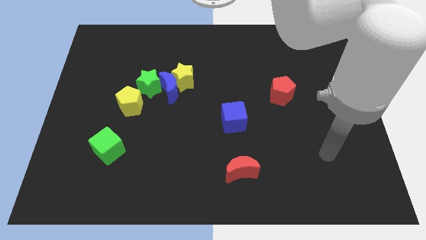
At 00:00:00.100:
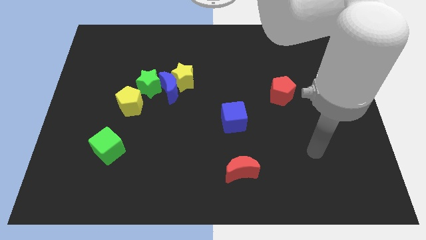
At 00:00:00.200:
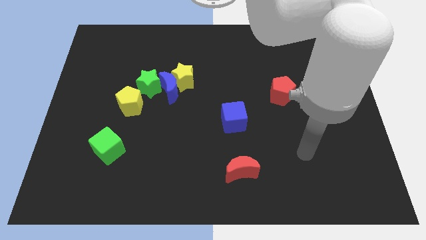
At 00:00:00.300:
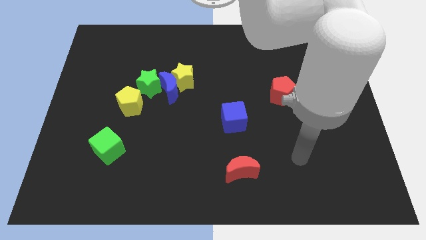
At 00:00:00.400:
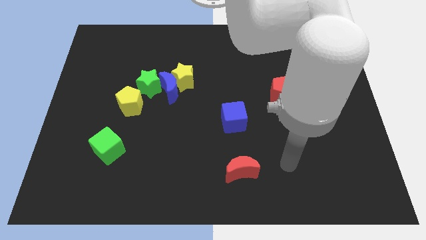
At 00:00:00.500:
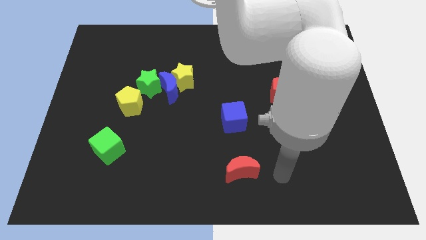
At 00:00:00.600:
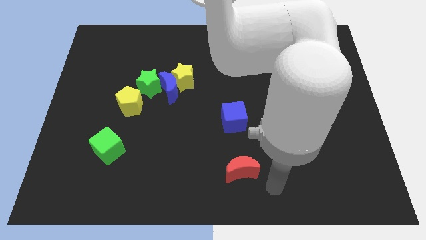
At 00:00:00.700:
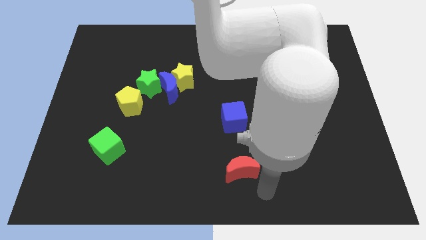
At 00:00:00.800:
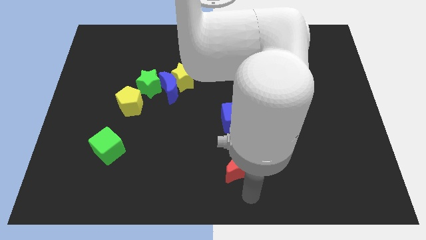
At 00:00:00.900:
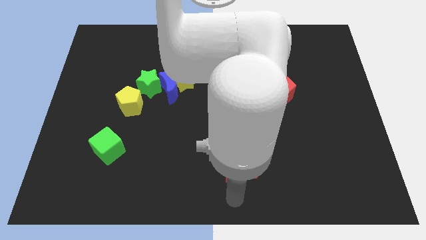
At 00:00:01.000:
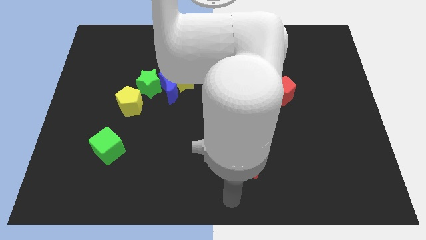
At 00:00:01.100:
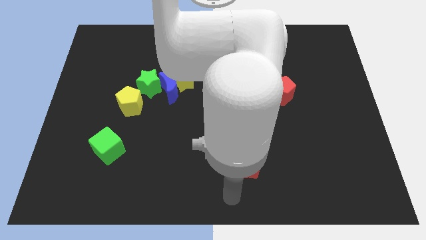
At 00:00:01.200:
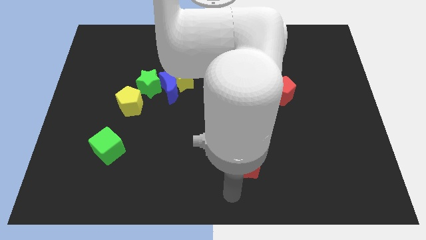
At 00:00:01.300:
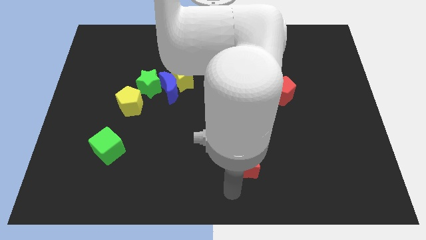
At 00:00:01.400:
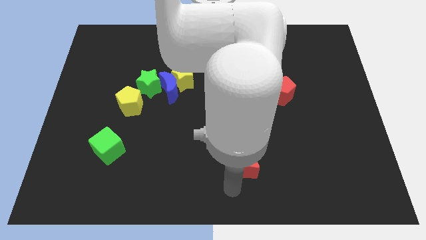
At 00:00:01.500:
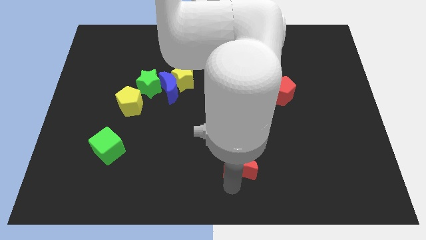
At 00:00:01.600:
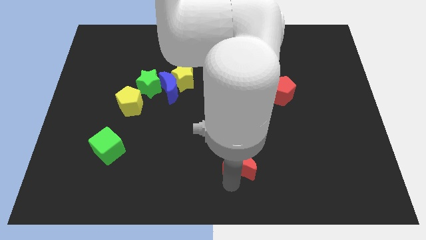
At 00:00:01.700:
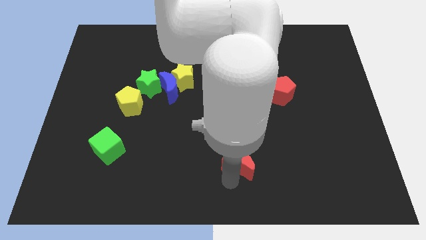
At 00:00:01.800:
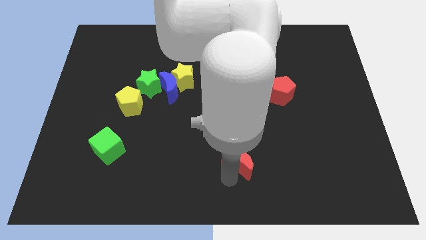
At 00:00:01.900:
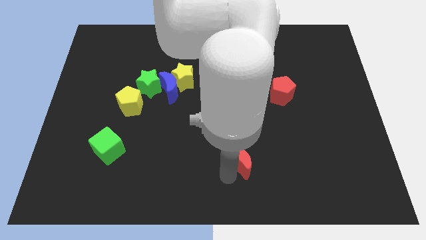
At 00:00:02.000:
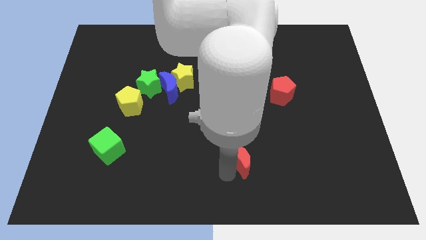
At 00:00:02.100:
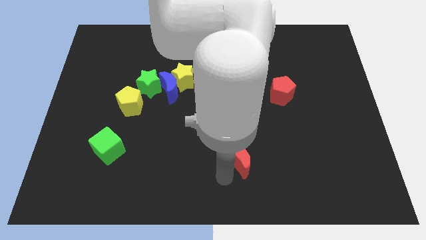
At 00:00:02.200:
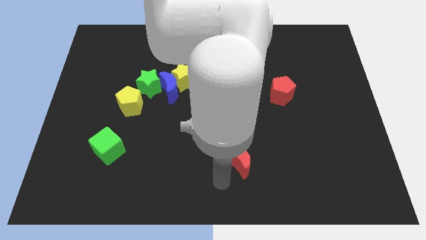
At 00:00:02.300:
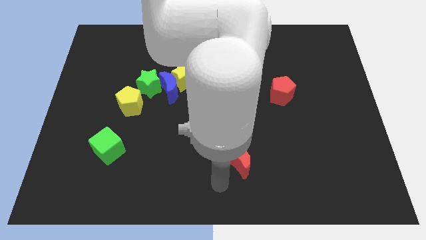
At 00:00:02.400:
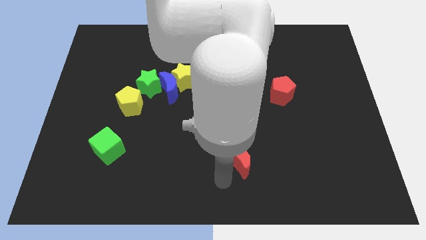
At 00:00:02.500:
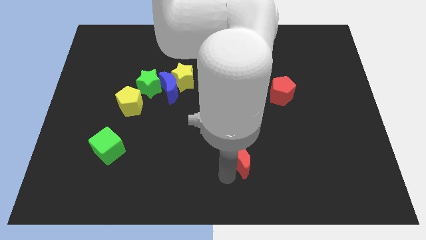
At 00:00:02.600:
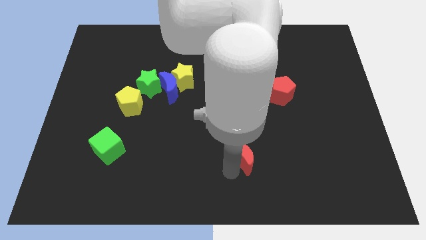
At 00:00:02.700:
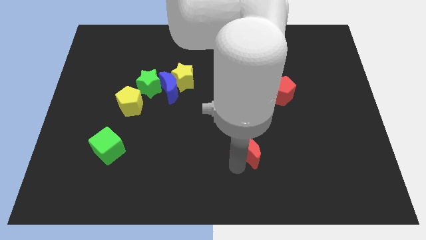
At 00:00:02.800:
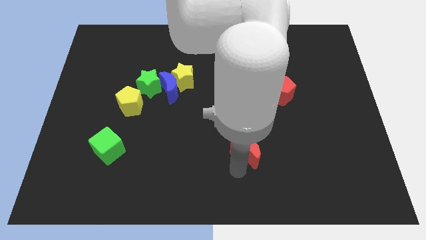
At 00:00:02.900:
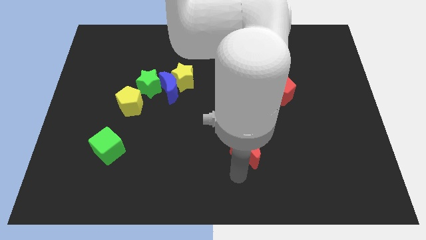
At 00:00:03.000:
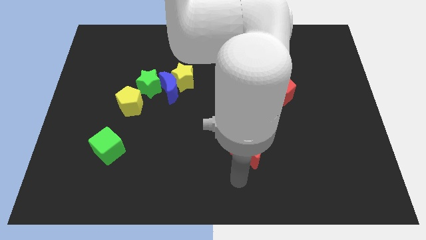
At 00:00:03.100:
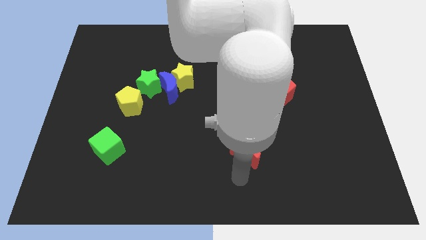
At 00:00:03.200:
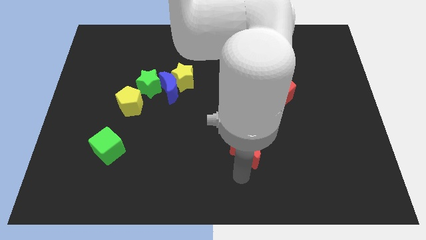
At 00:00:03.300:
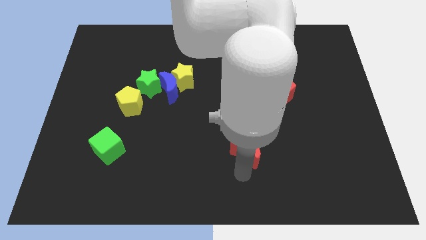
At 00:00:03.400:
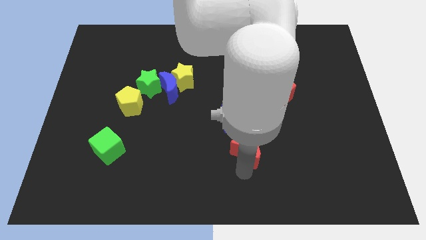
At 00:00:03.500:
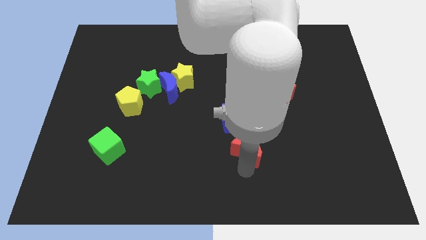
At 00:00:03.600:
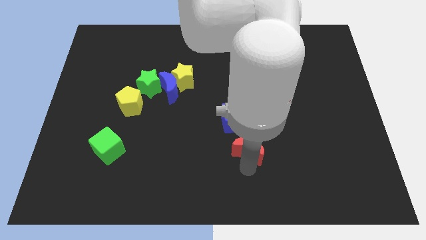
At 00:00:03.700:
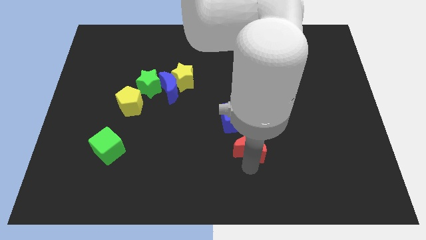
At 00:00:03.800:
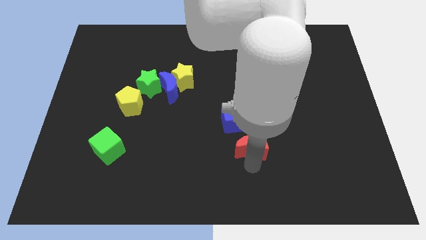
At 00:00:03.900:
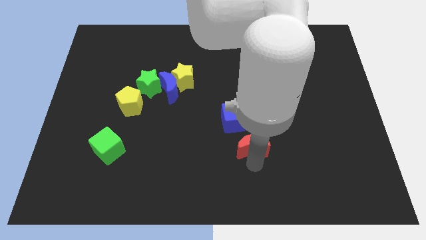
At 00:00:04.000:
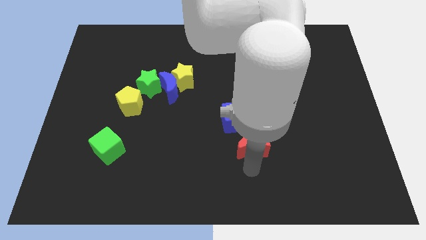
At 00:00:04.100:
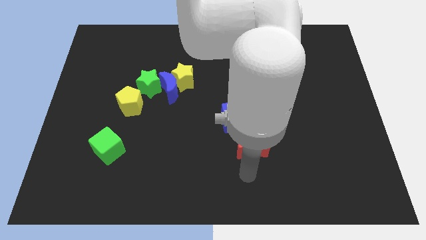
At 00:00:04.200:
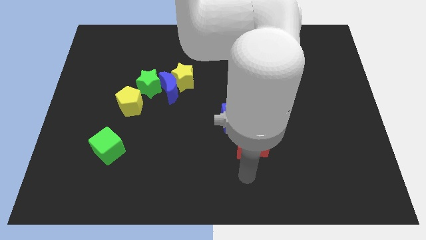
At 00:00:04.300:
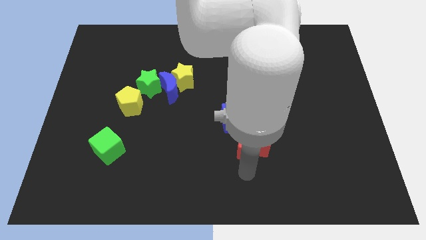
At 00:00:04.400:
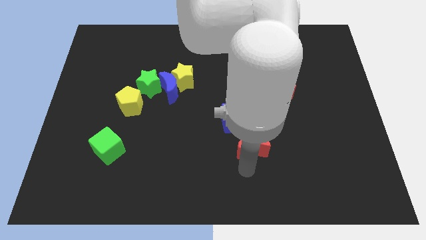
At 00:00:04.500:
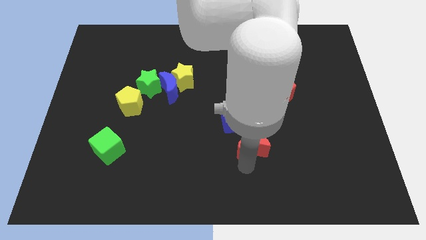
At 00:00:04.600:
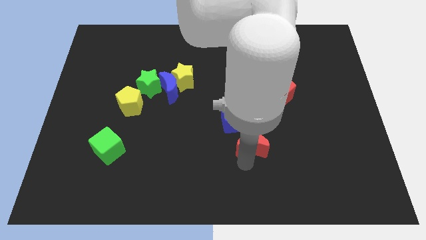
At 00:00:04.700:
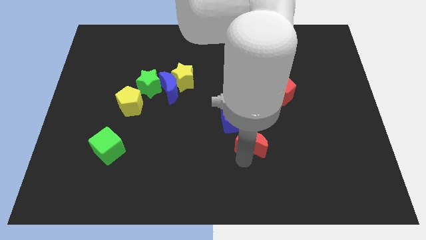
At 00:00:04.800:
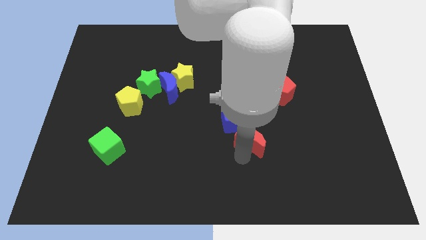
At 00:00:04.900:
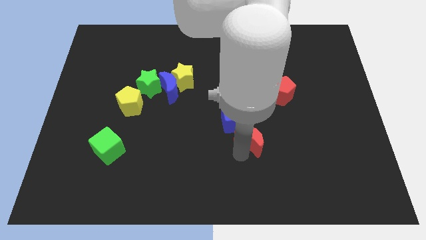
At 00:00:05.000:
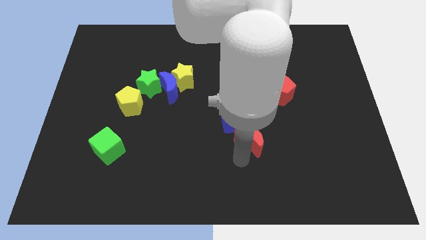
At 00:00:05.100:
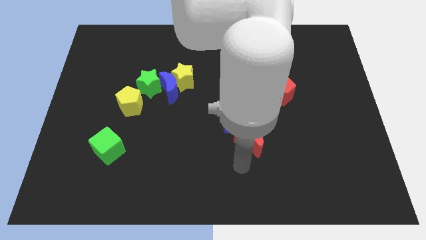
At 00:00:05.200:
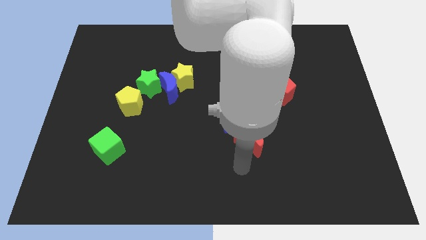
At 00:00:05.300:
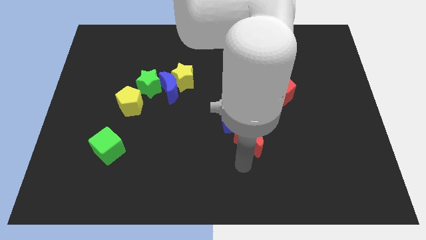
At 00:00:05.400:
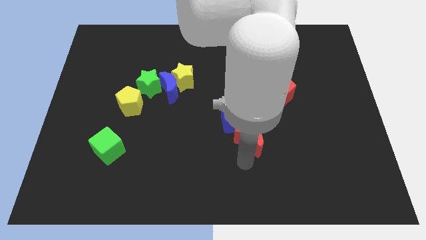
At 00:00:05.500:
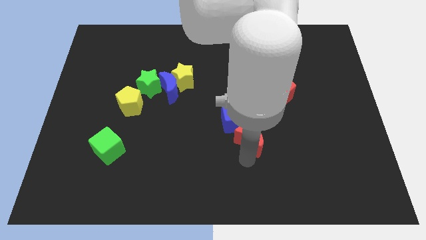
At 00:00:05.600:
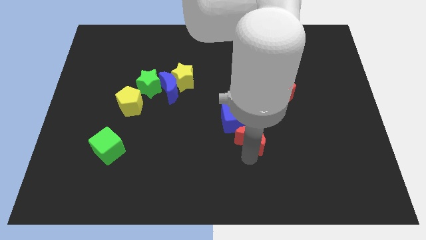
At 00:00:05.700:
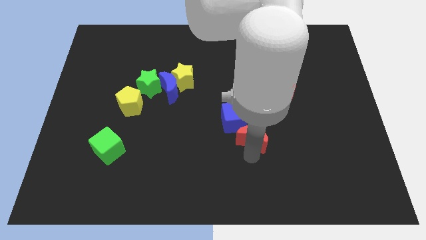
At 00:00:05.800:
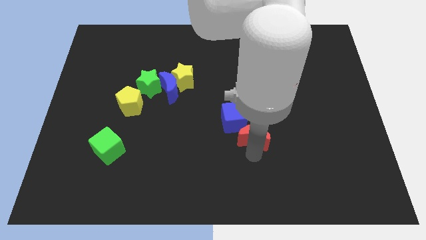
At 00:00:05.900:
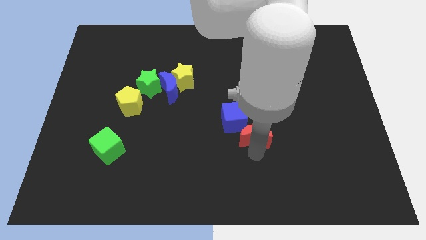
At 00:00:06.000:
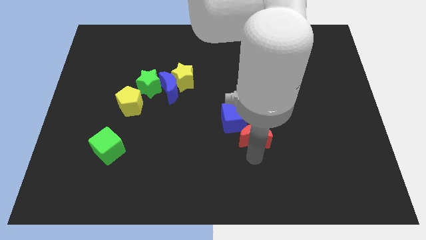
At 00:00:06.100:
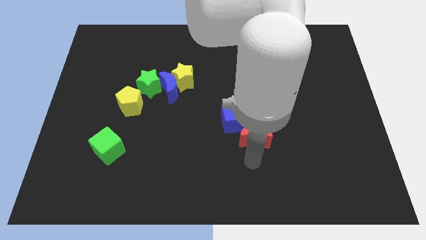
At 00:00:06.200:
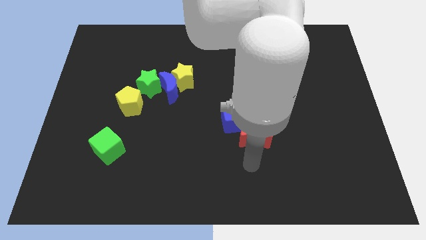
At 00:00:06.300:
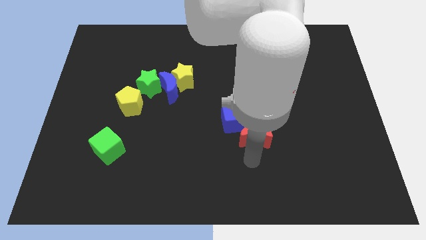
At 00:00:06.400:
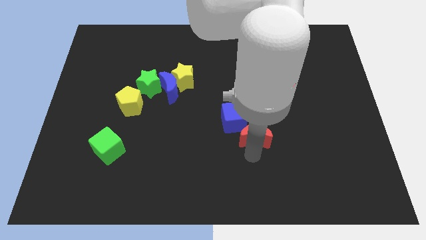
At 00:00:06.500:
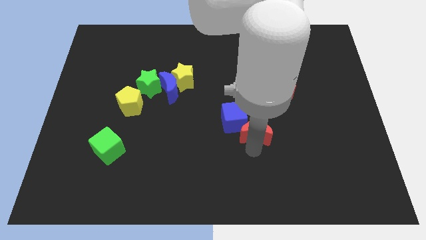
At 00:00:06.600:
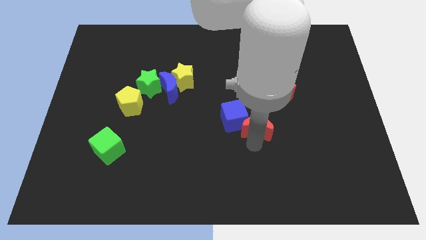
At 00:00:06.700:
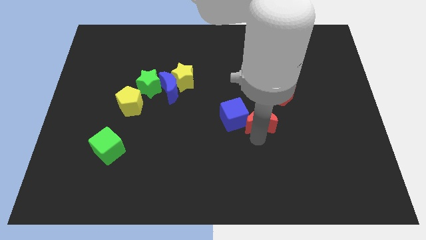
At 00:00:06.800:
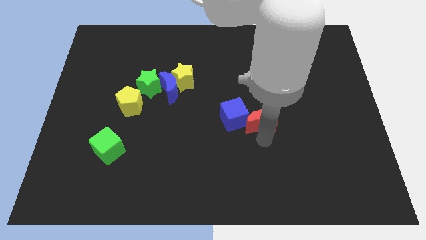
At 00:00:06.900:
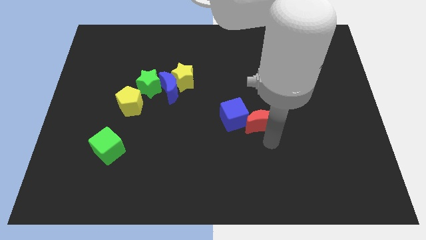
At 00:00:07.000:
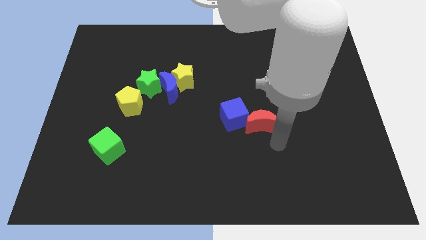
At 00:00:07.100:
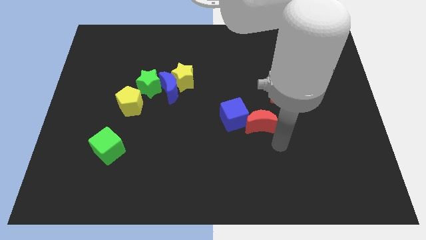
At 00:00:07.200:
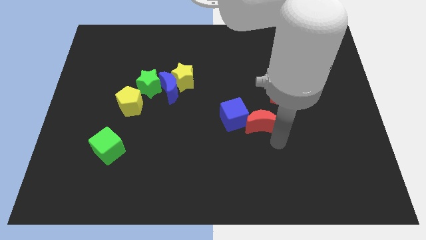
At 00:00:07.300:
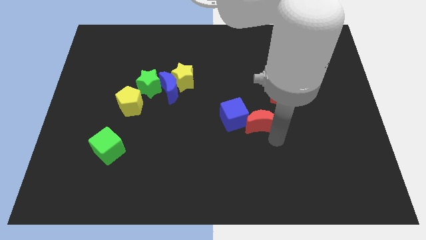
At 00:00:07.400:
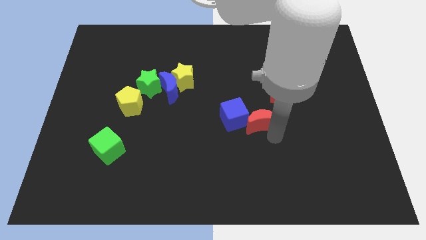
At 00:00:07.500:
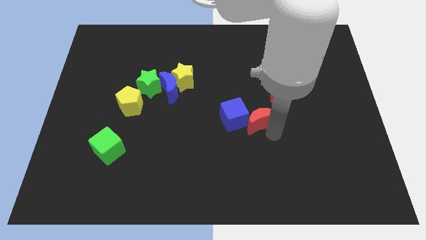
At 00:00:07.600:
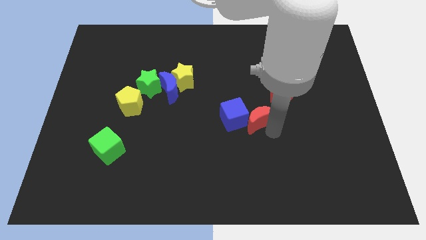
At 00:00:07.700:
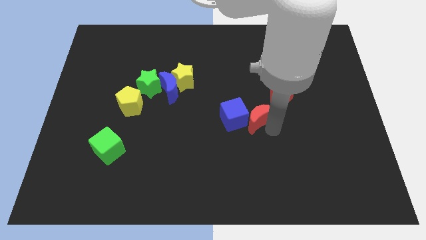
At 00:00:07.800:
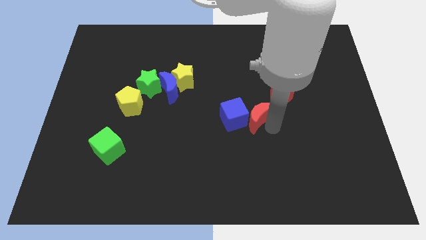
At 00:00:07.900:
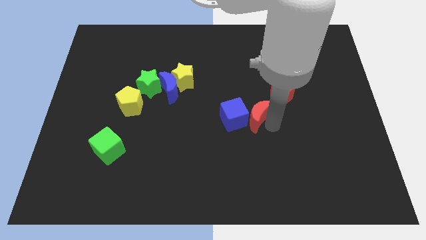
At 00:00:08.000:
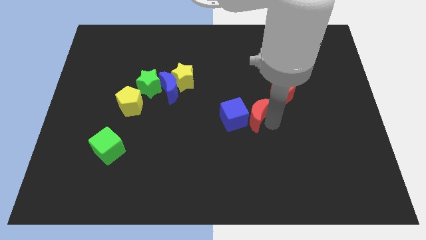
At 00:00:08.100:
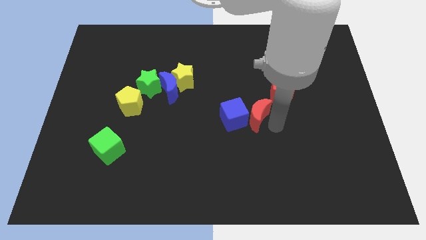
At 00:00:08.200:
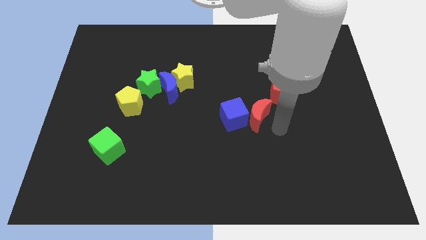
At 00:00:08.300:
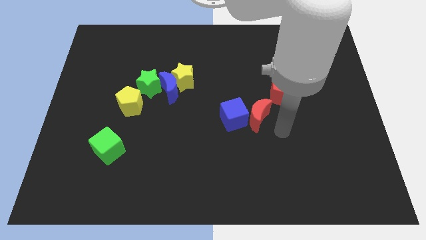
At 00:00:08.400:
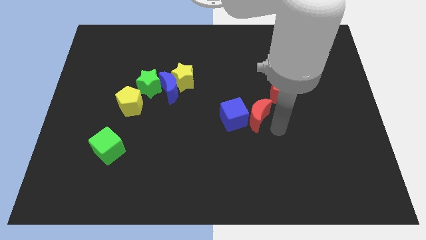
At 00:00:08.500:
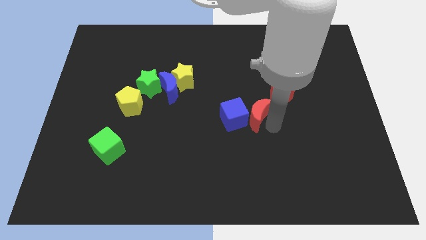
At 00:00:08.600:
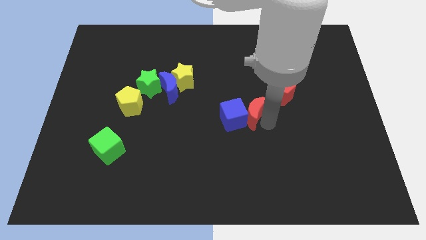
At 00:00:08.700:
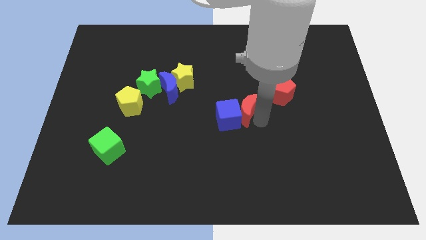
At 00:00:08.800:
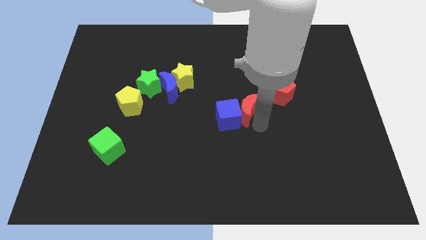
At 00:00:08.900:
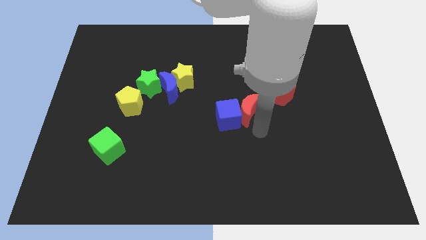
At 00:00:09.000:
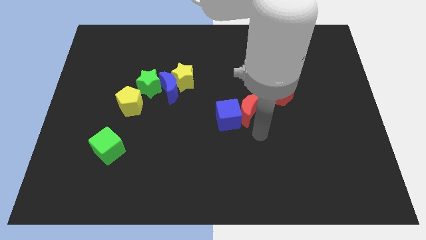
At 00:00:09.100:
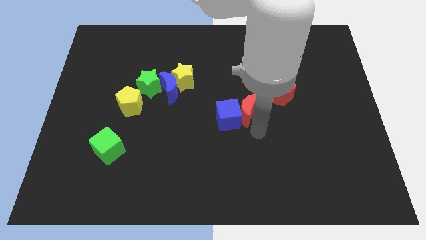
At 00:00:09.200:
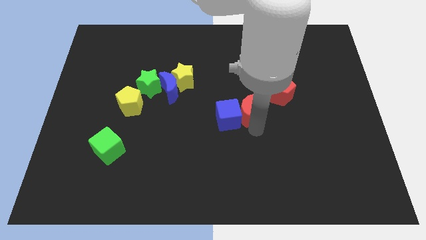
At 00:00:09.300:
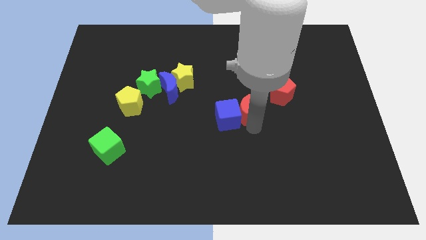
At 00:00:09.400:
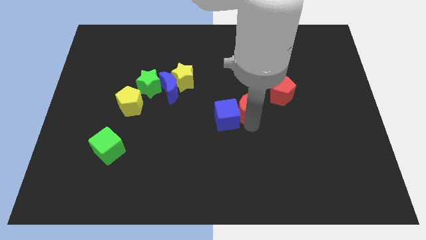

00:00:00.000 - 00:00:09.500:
put the red moon just left of the red pentagon
